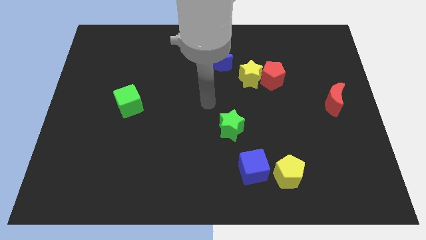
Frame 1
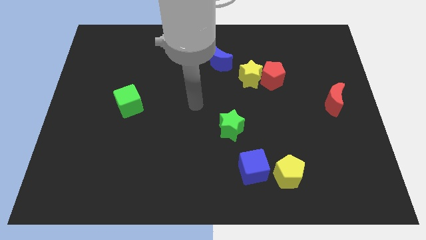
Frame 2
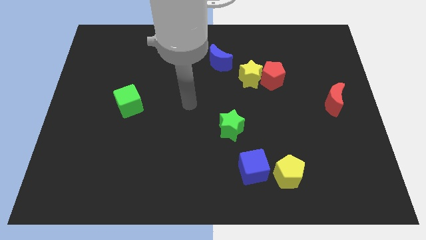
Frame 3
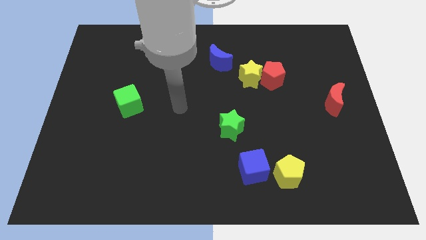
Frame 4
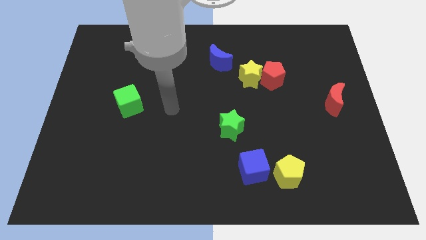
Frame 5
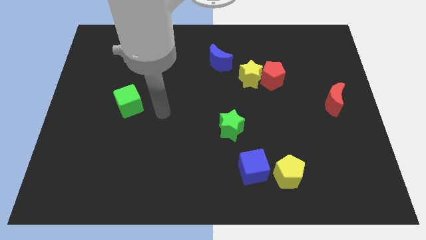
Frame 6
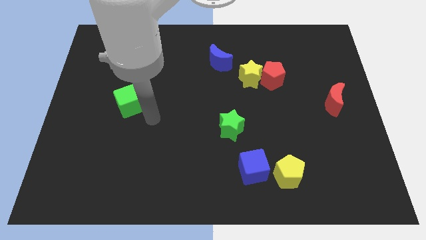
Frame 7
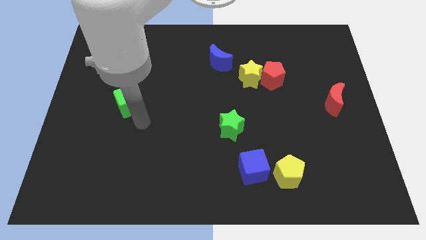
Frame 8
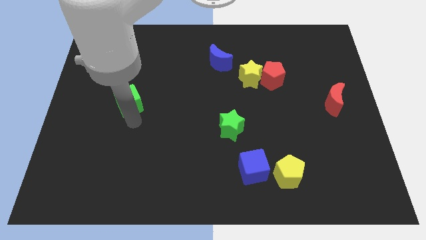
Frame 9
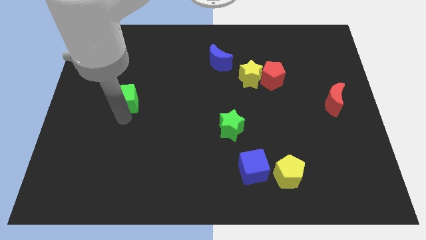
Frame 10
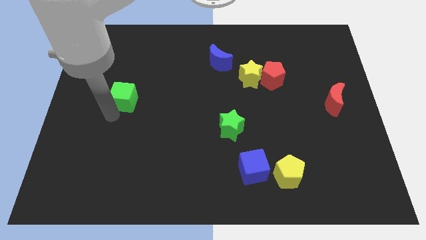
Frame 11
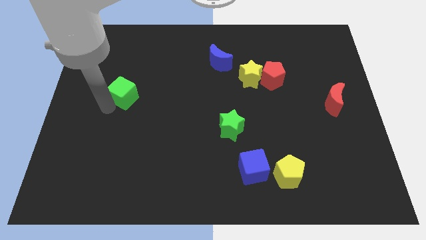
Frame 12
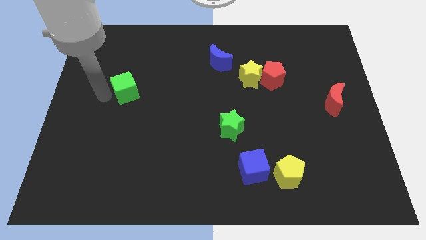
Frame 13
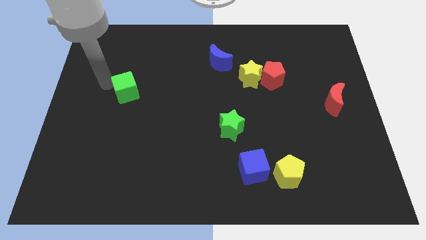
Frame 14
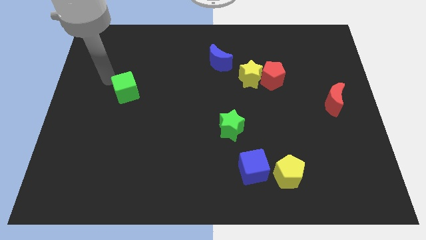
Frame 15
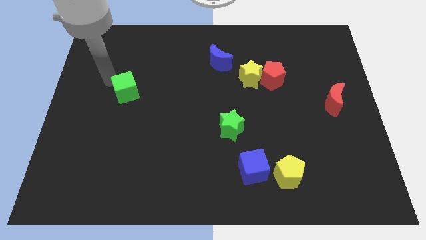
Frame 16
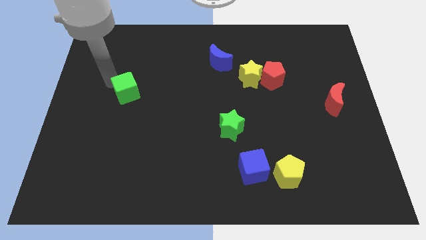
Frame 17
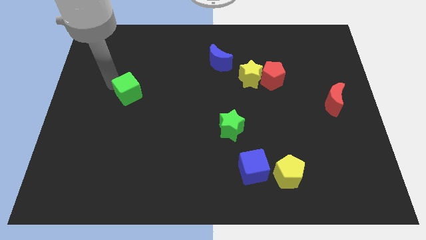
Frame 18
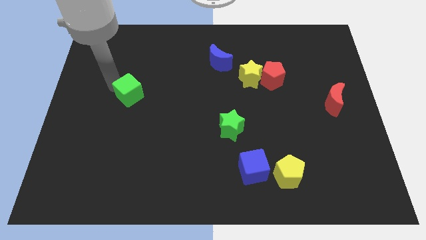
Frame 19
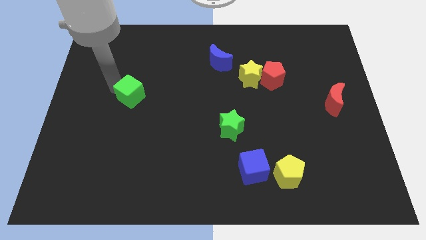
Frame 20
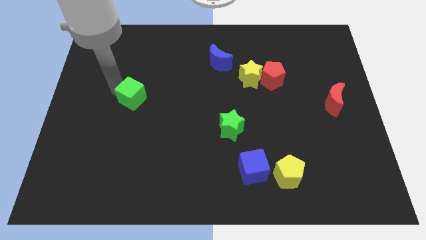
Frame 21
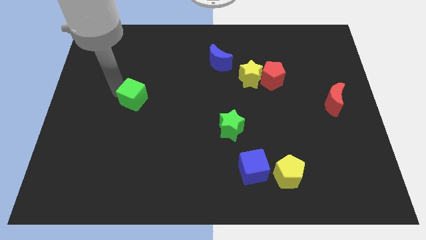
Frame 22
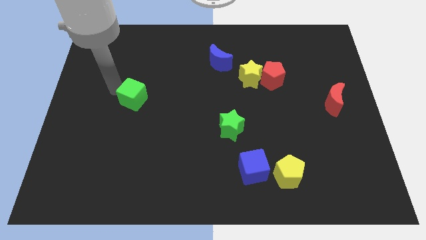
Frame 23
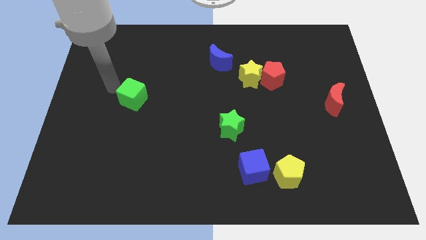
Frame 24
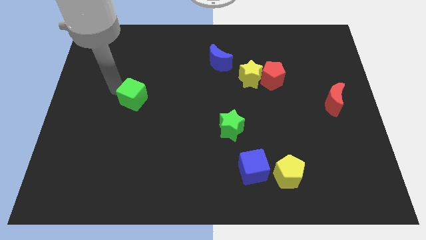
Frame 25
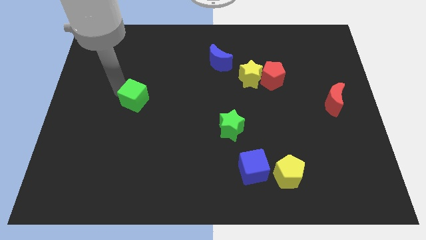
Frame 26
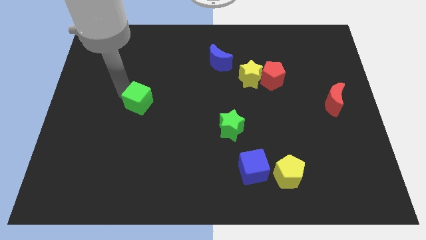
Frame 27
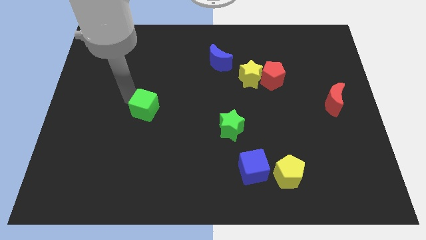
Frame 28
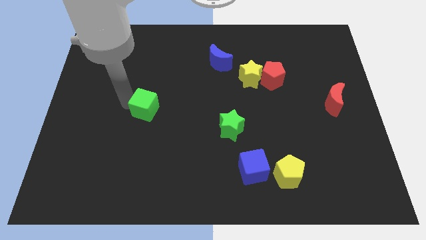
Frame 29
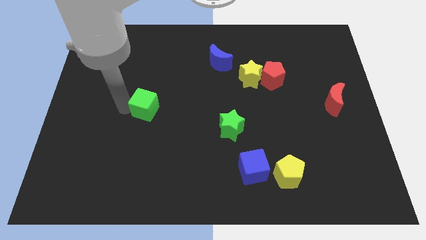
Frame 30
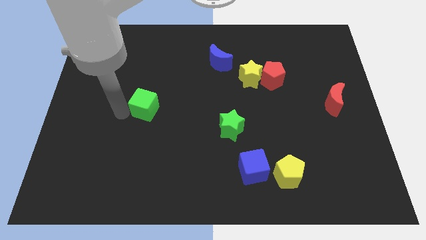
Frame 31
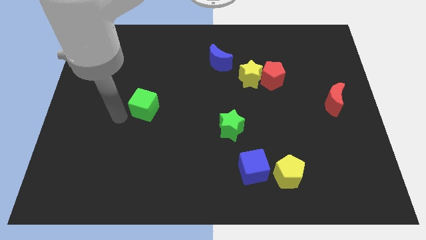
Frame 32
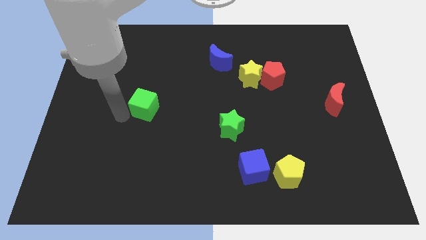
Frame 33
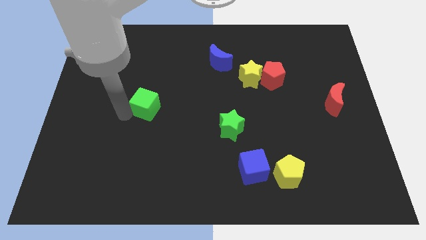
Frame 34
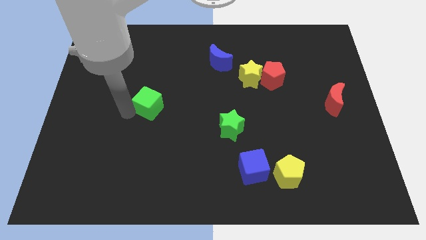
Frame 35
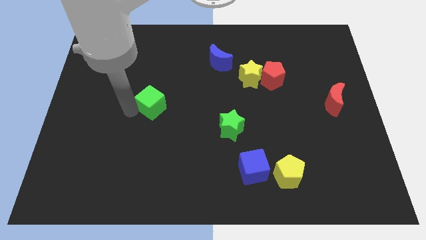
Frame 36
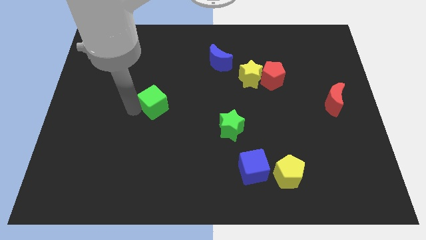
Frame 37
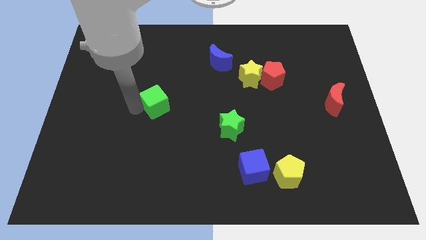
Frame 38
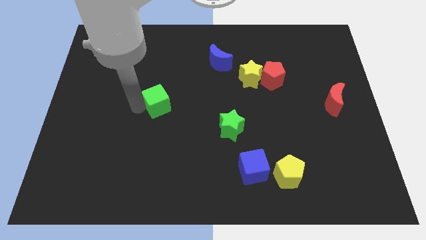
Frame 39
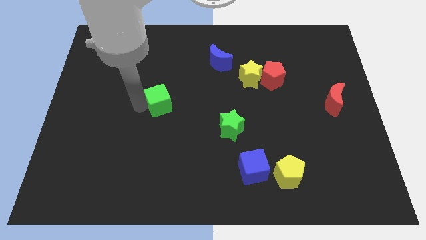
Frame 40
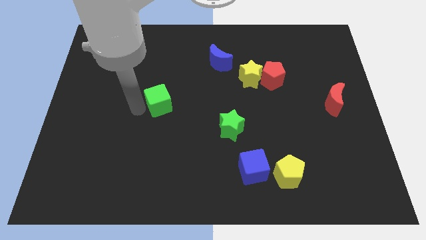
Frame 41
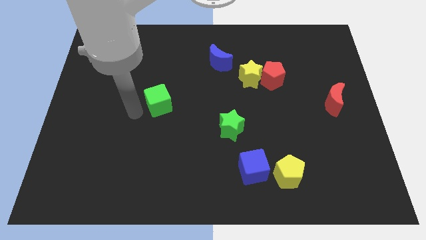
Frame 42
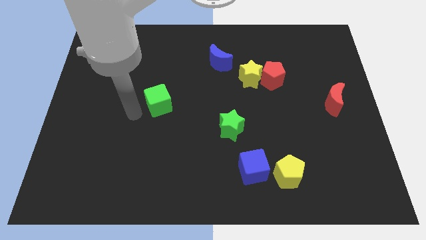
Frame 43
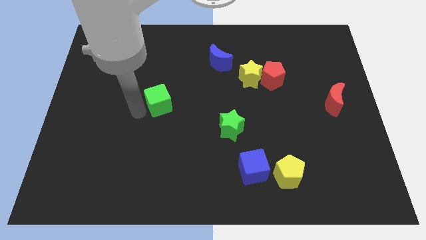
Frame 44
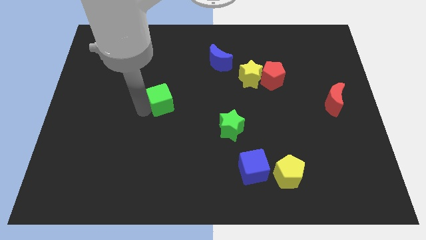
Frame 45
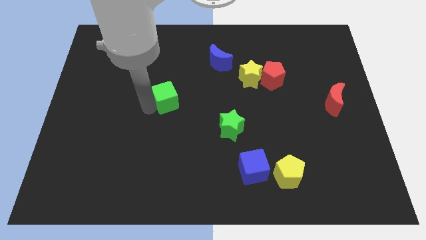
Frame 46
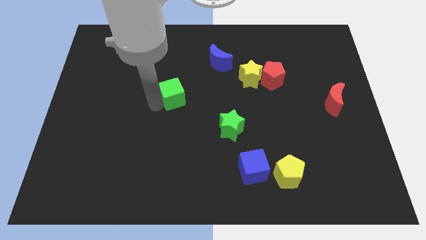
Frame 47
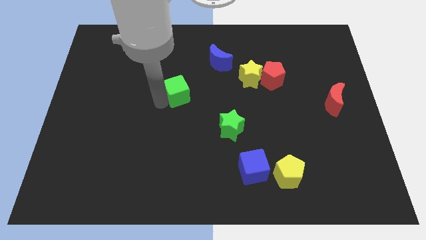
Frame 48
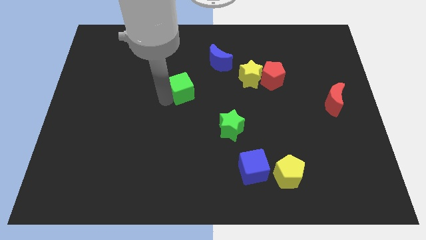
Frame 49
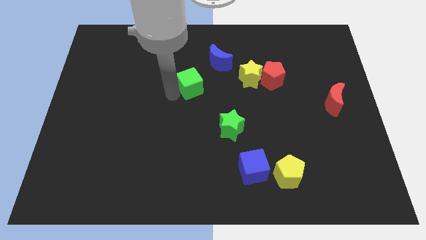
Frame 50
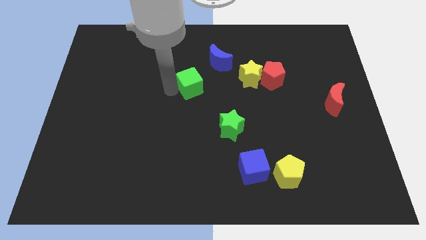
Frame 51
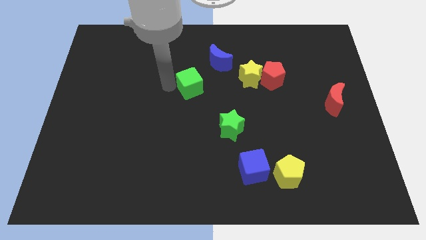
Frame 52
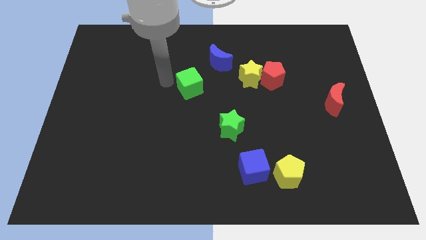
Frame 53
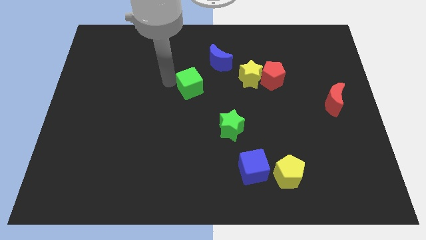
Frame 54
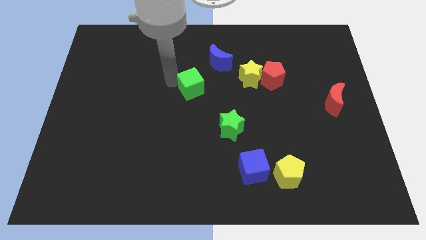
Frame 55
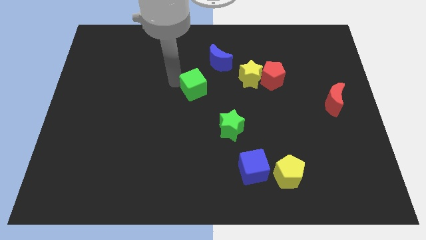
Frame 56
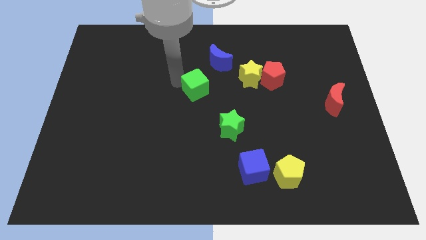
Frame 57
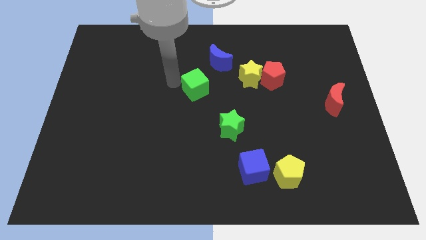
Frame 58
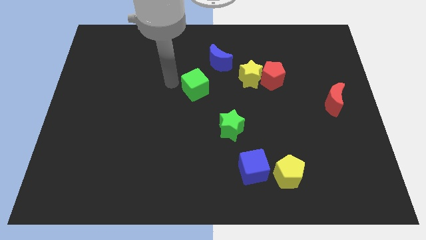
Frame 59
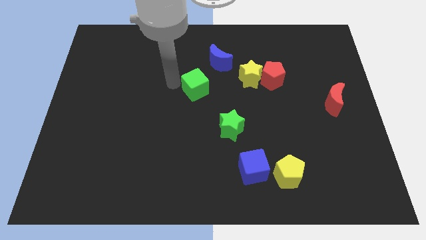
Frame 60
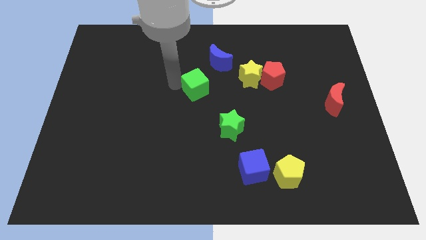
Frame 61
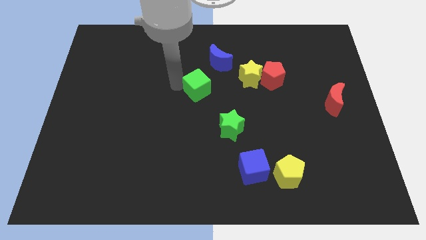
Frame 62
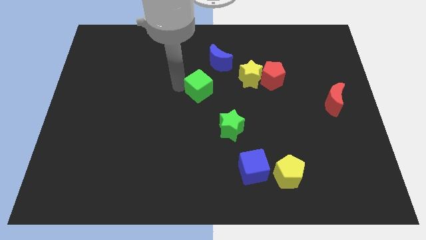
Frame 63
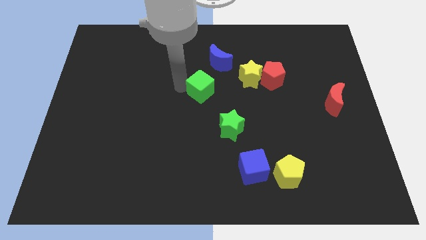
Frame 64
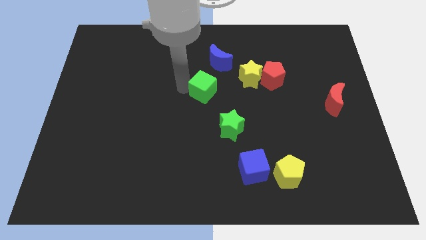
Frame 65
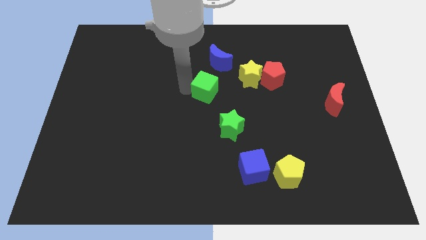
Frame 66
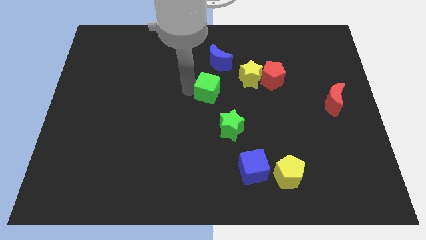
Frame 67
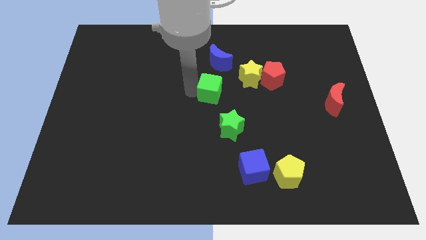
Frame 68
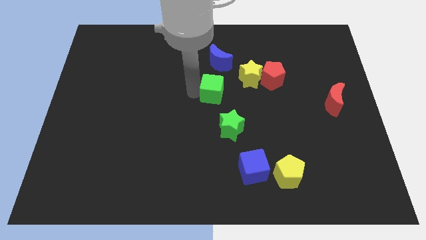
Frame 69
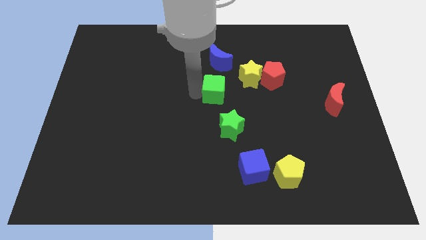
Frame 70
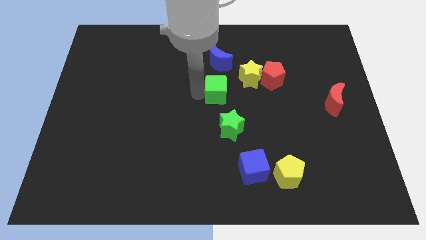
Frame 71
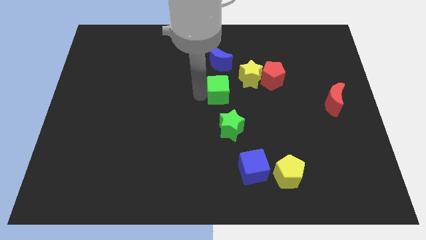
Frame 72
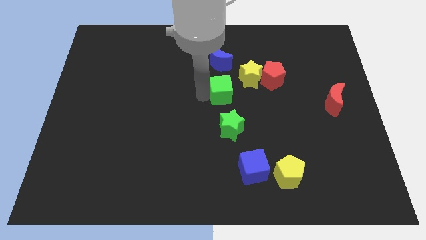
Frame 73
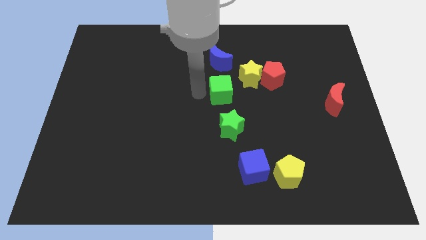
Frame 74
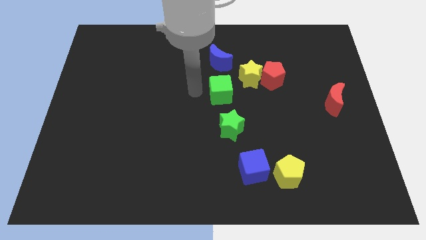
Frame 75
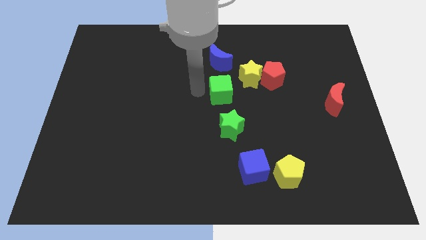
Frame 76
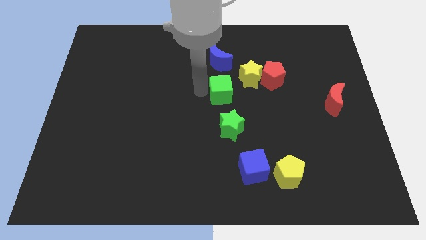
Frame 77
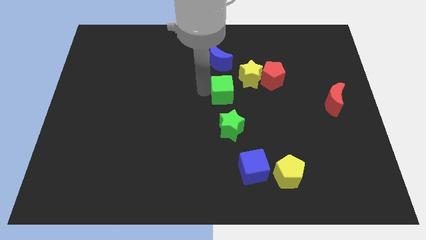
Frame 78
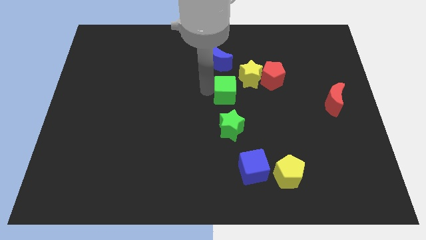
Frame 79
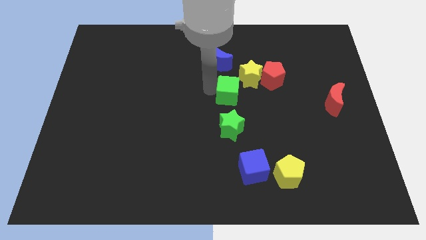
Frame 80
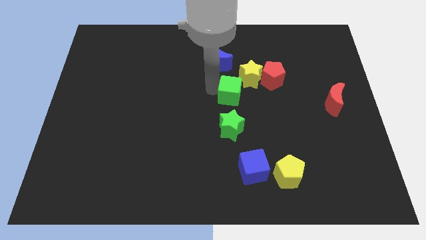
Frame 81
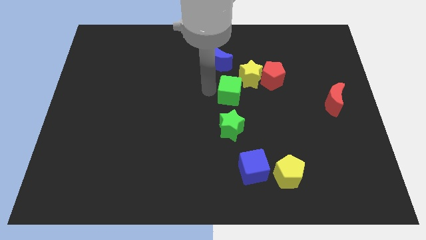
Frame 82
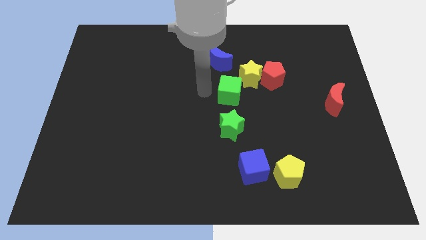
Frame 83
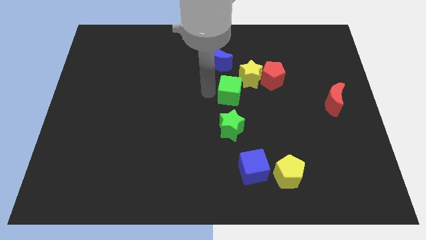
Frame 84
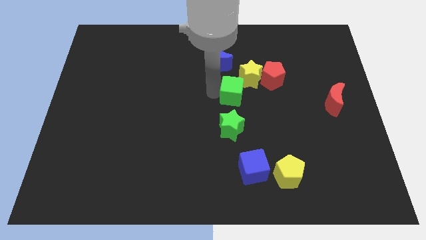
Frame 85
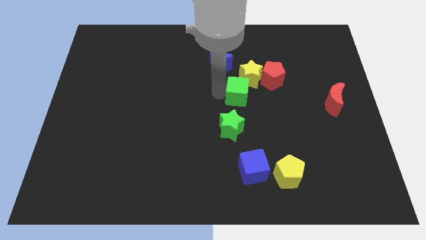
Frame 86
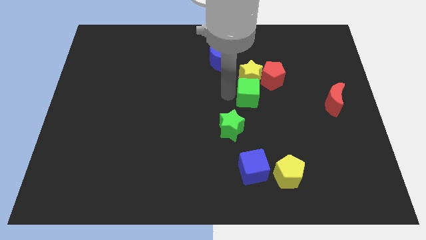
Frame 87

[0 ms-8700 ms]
put the green cube to the bottom right of the yellow star
